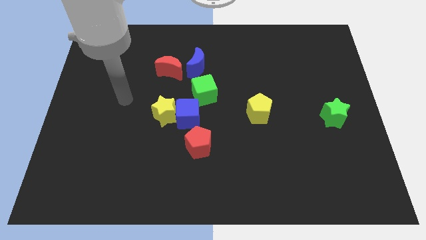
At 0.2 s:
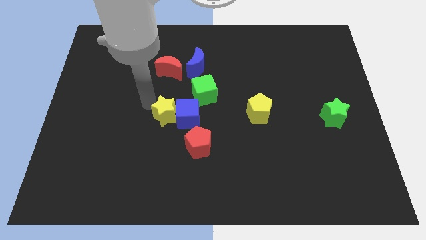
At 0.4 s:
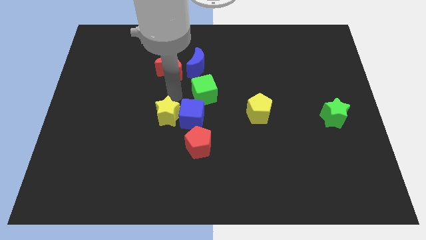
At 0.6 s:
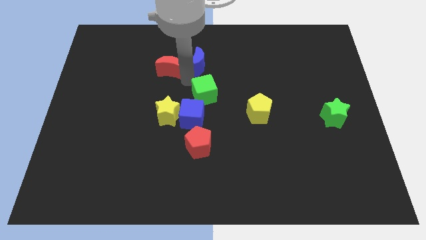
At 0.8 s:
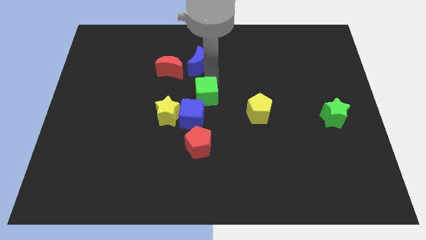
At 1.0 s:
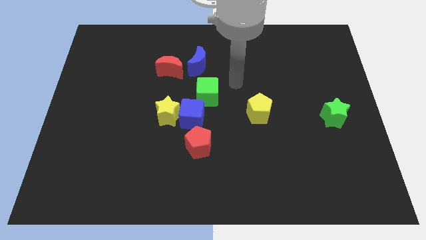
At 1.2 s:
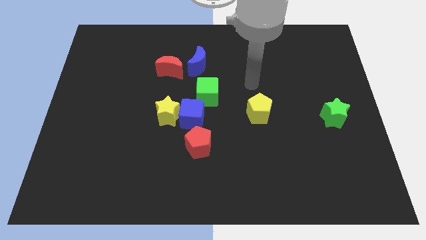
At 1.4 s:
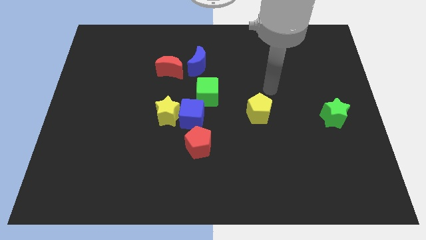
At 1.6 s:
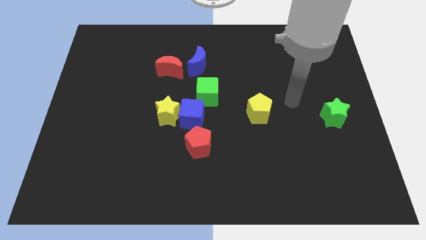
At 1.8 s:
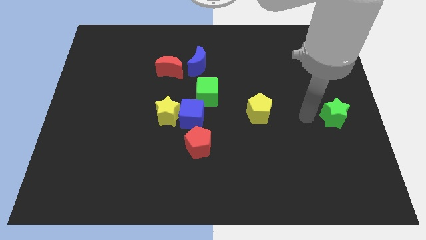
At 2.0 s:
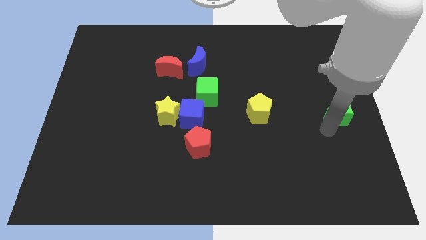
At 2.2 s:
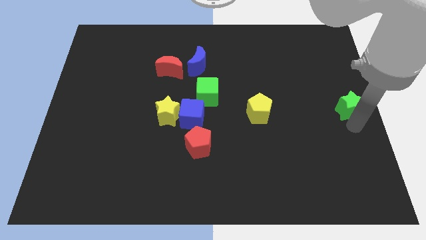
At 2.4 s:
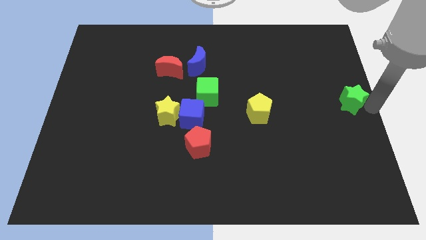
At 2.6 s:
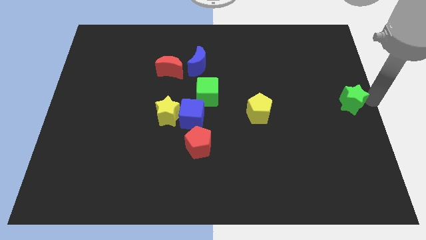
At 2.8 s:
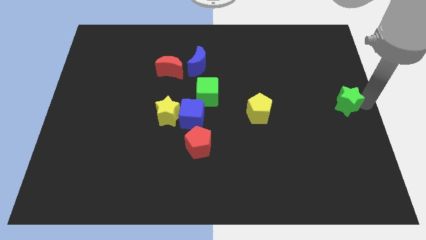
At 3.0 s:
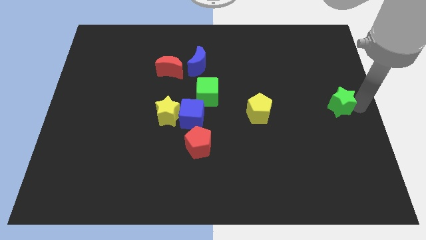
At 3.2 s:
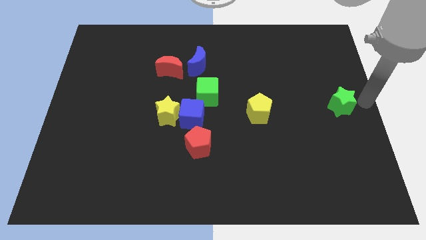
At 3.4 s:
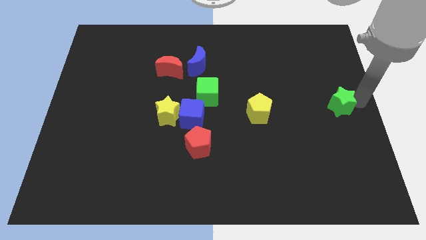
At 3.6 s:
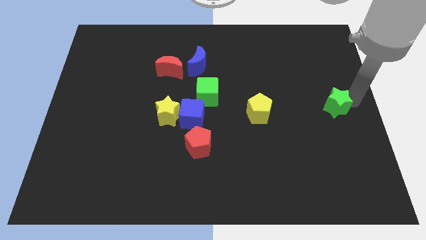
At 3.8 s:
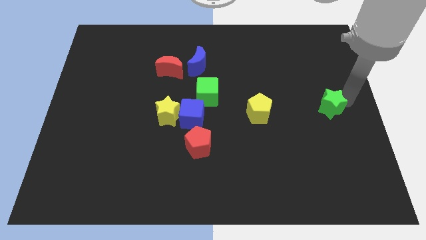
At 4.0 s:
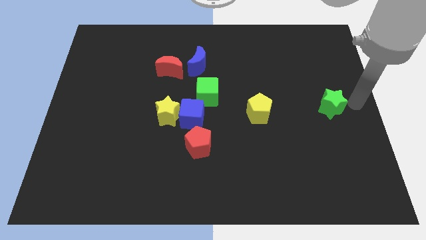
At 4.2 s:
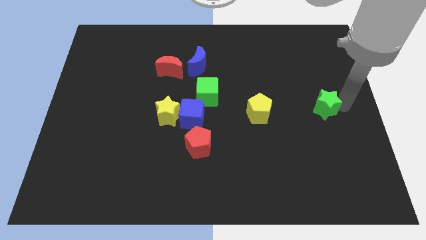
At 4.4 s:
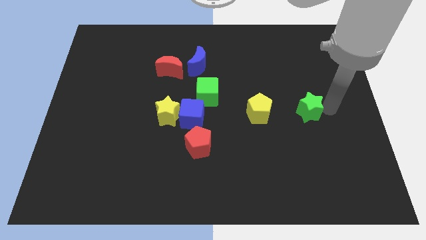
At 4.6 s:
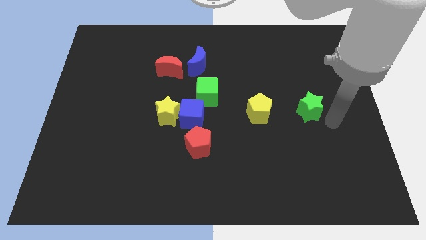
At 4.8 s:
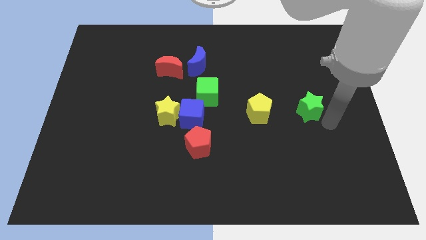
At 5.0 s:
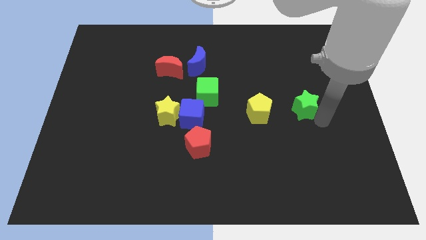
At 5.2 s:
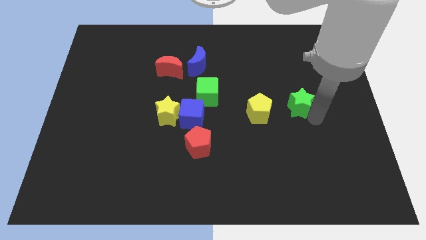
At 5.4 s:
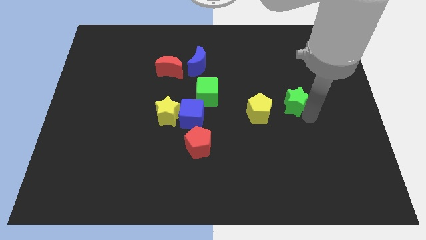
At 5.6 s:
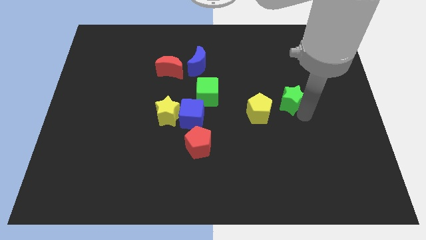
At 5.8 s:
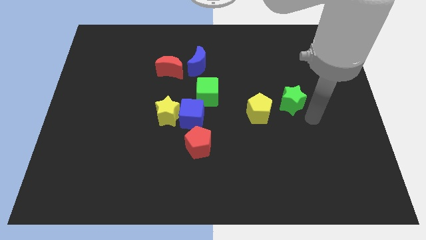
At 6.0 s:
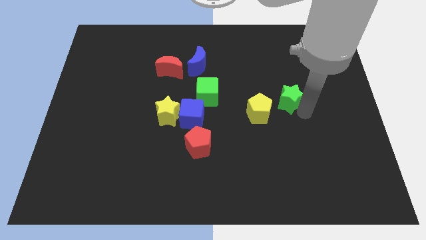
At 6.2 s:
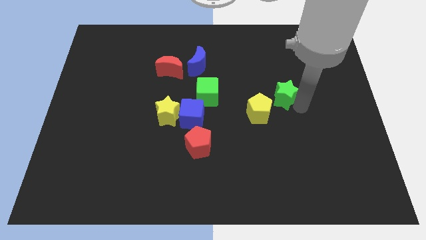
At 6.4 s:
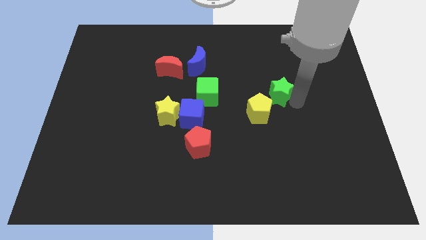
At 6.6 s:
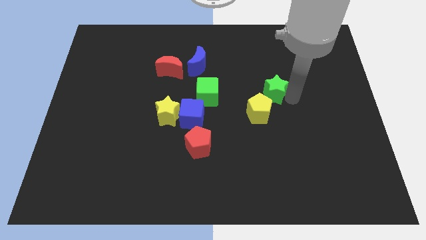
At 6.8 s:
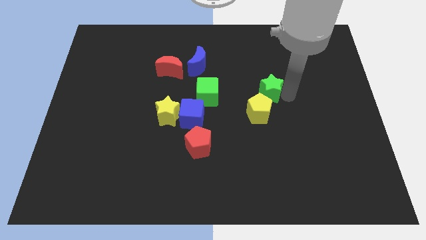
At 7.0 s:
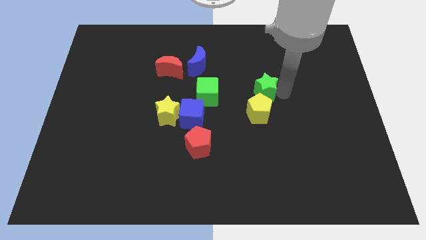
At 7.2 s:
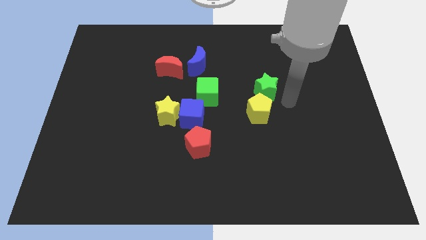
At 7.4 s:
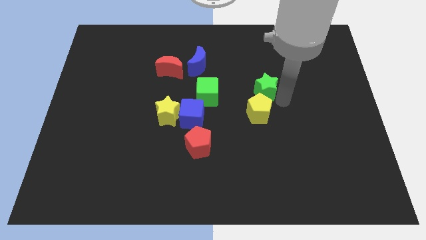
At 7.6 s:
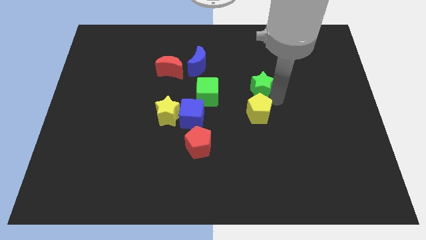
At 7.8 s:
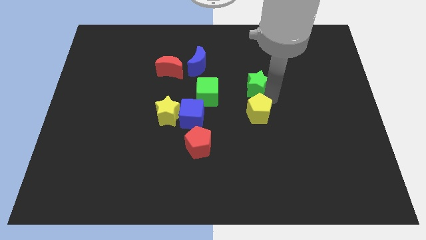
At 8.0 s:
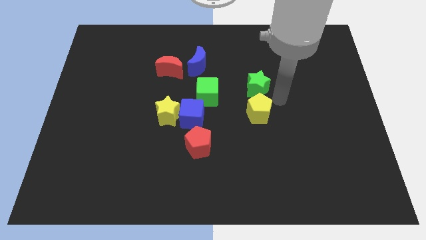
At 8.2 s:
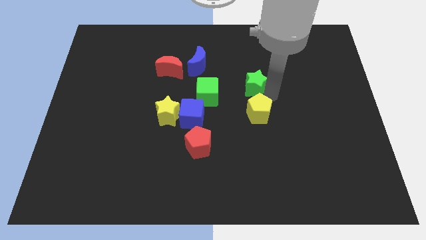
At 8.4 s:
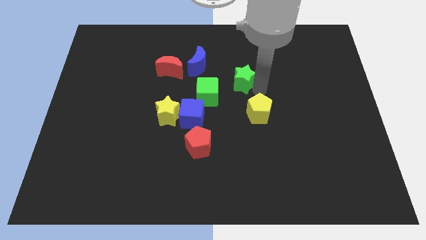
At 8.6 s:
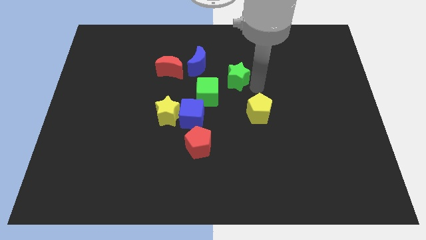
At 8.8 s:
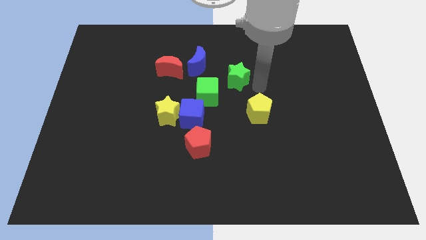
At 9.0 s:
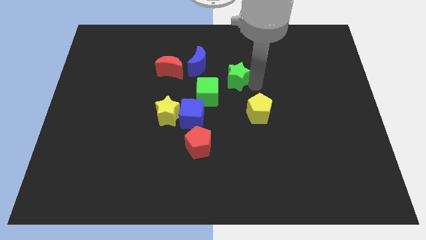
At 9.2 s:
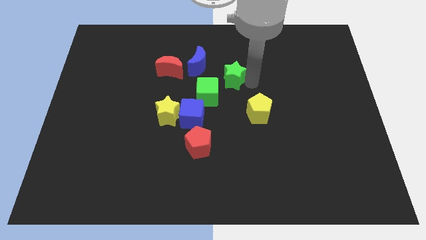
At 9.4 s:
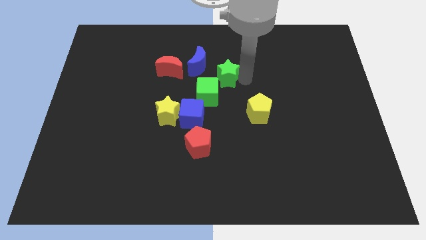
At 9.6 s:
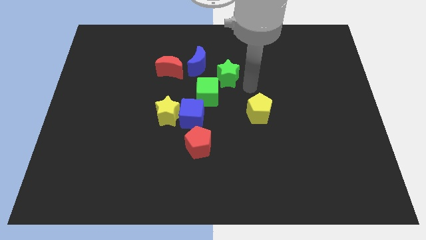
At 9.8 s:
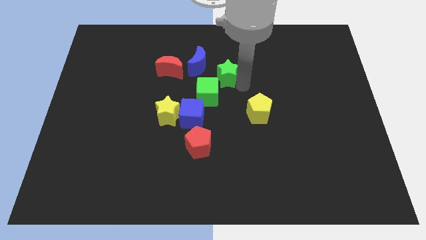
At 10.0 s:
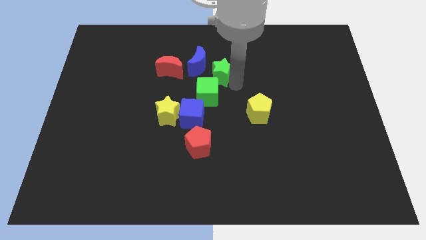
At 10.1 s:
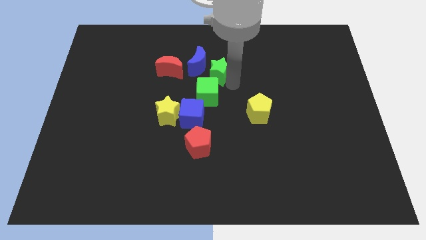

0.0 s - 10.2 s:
slide the green star towards the blue moon

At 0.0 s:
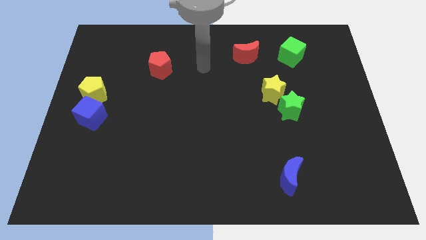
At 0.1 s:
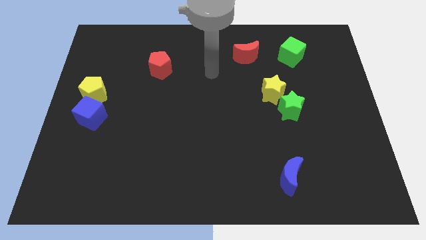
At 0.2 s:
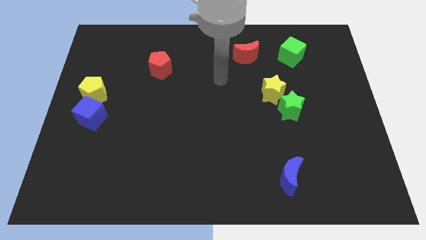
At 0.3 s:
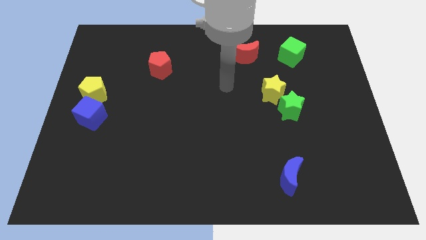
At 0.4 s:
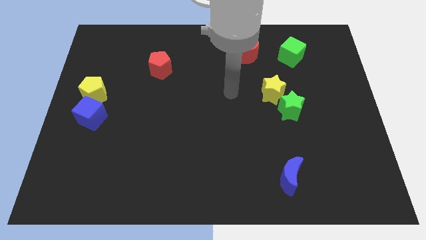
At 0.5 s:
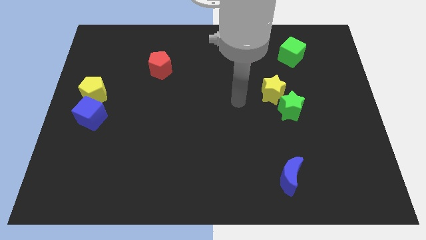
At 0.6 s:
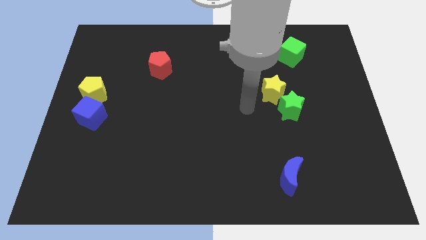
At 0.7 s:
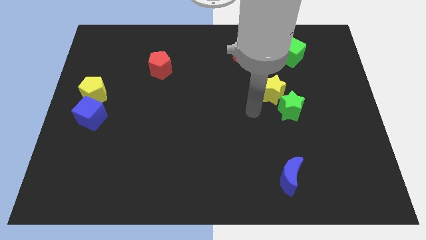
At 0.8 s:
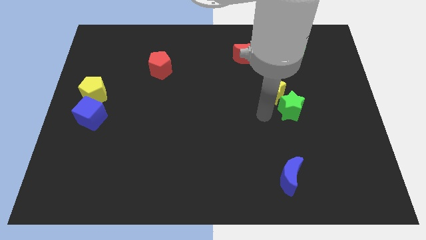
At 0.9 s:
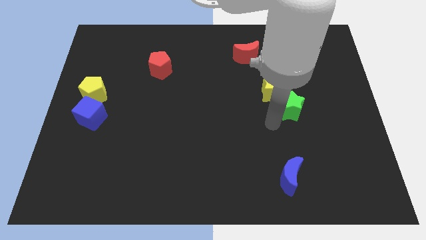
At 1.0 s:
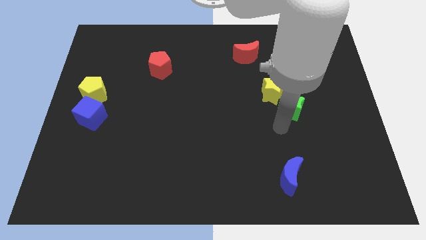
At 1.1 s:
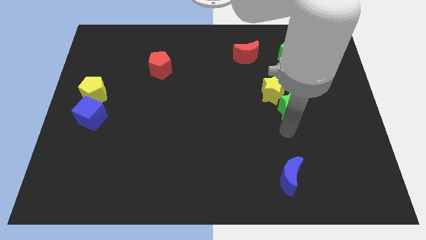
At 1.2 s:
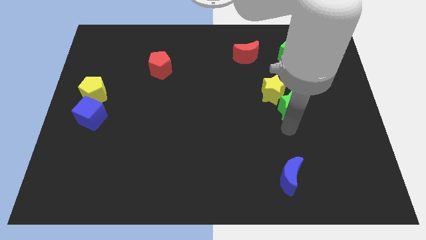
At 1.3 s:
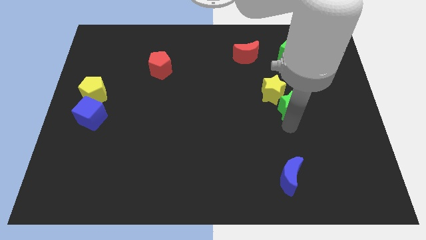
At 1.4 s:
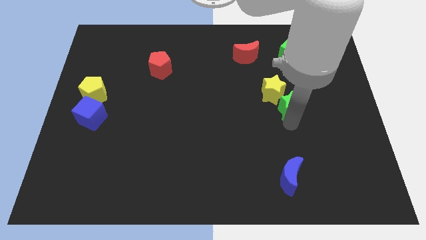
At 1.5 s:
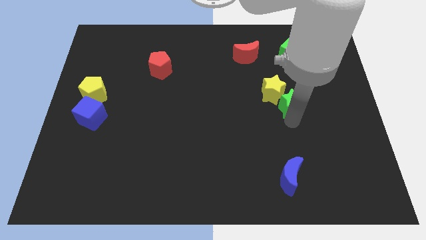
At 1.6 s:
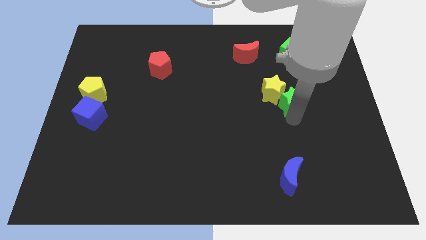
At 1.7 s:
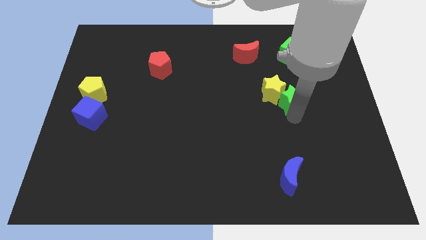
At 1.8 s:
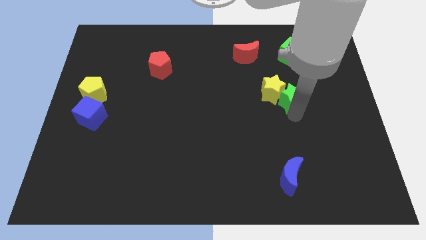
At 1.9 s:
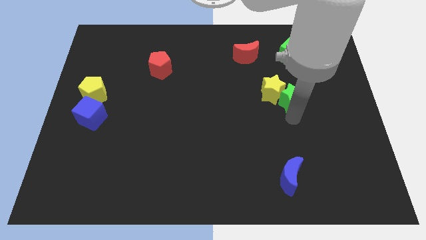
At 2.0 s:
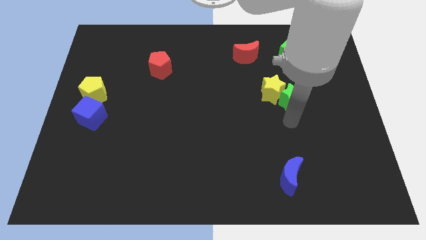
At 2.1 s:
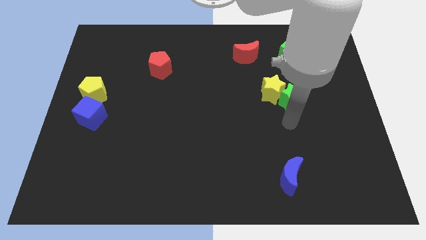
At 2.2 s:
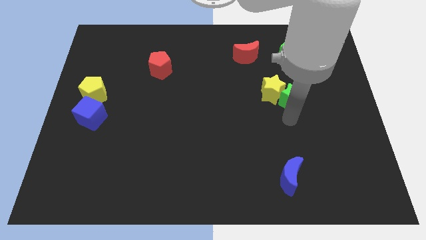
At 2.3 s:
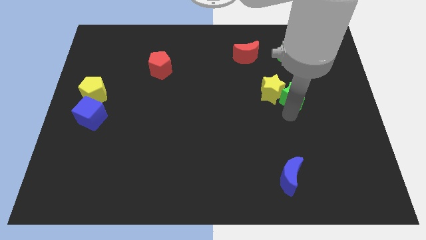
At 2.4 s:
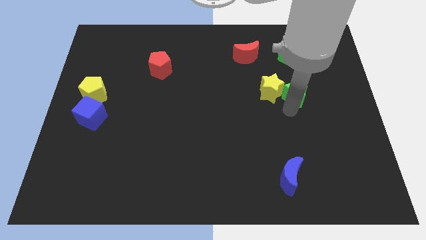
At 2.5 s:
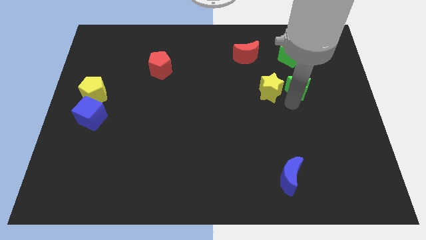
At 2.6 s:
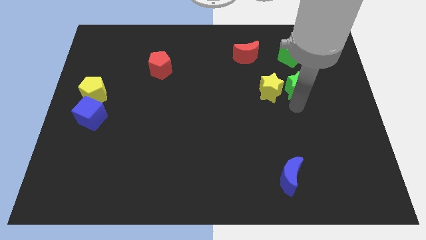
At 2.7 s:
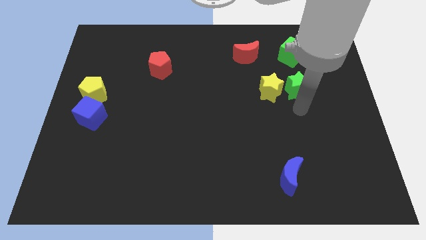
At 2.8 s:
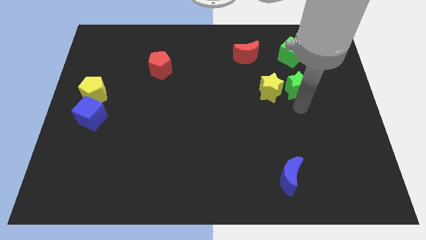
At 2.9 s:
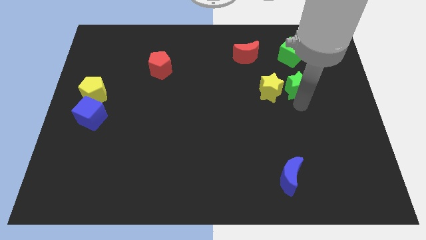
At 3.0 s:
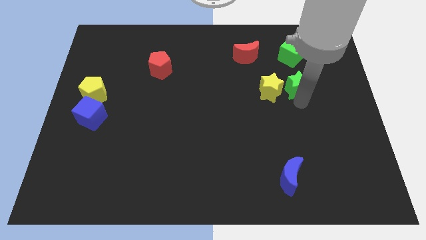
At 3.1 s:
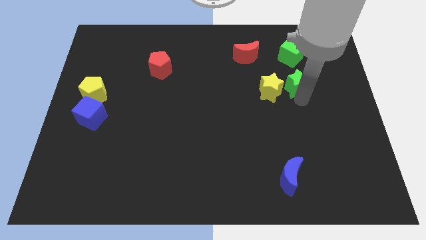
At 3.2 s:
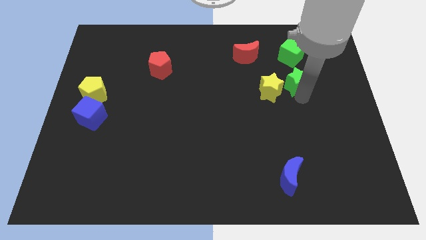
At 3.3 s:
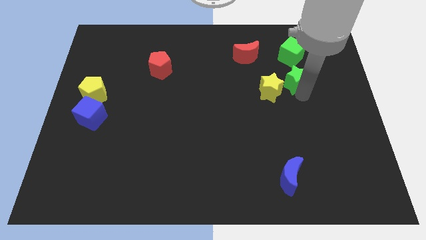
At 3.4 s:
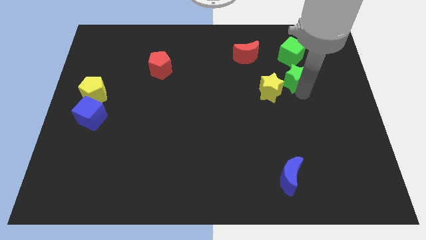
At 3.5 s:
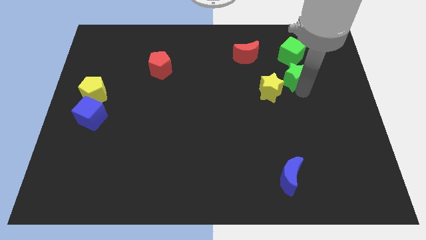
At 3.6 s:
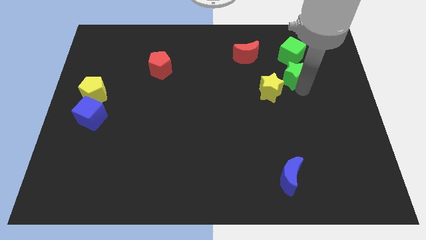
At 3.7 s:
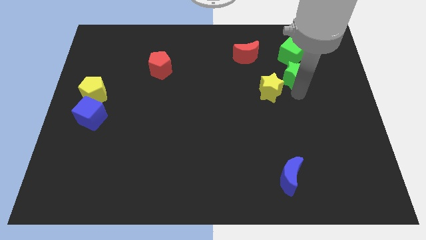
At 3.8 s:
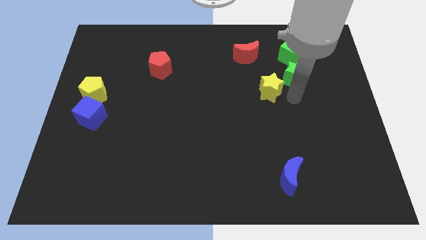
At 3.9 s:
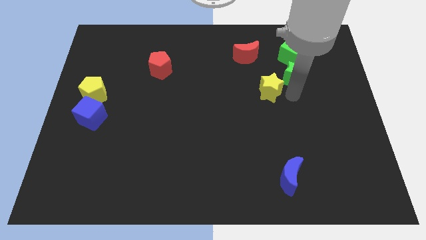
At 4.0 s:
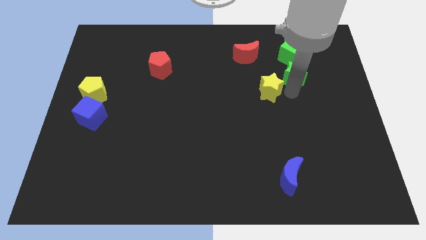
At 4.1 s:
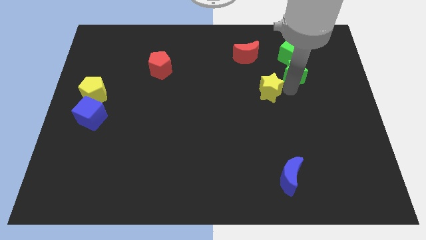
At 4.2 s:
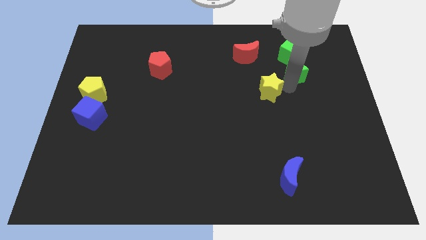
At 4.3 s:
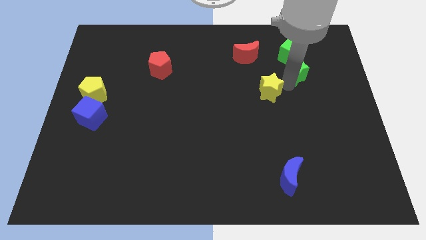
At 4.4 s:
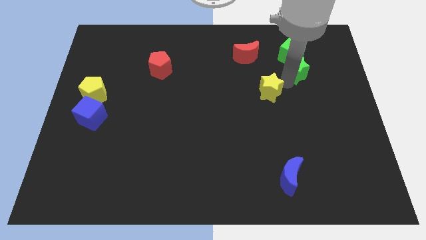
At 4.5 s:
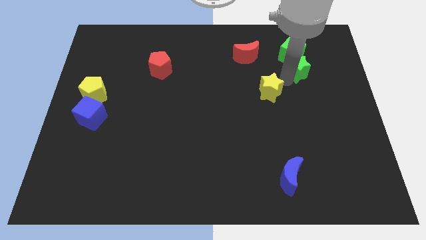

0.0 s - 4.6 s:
slide the green star towards the green cube
